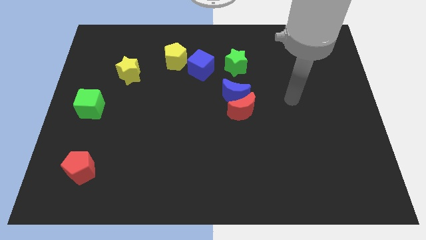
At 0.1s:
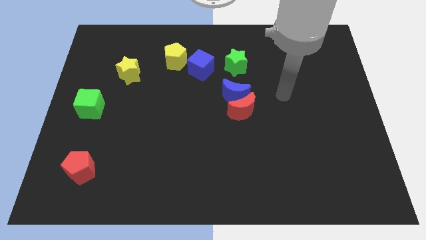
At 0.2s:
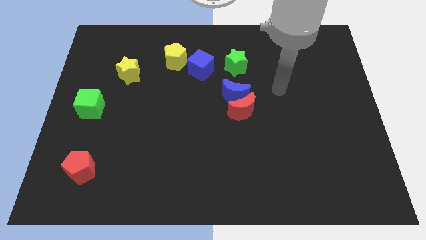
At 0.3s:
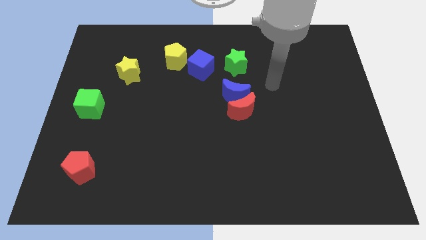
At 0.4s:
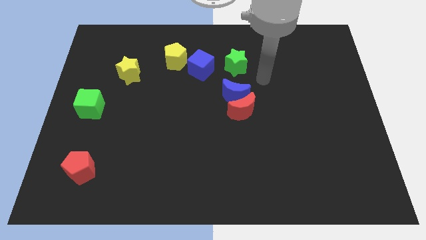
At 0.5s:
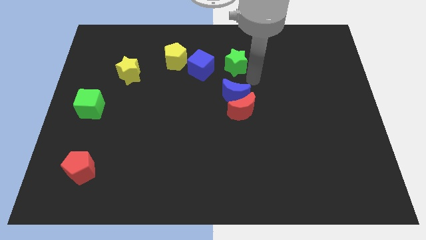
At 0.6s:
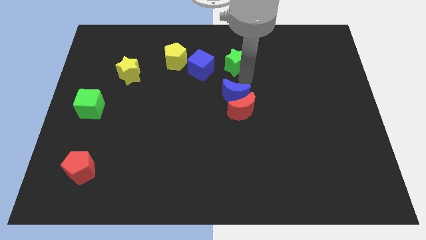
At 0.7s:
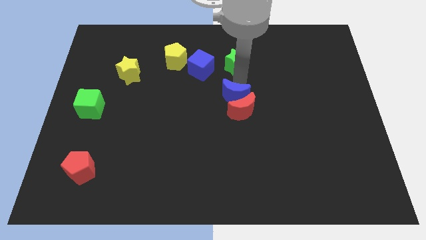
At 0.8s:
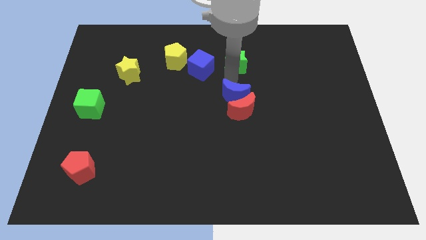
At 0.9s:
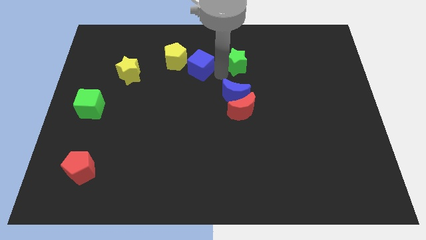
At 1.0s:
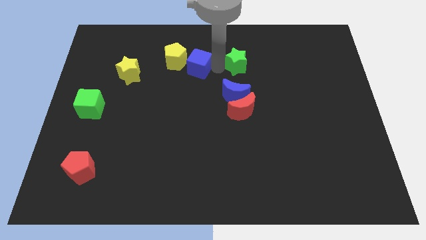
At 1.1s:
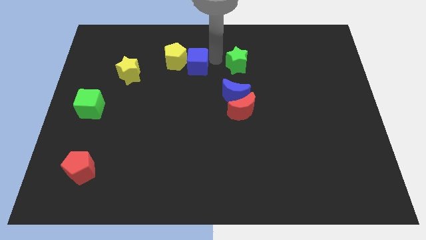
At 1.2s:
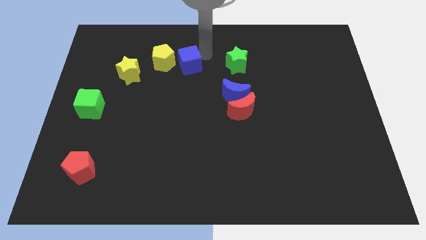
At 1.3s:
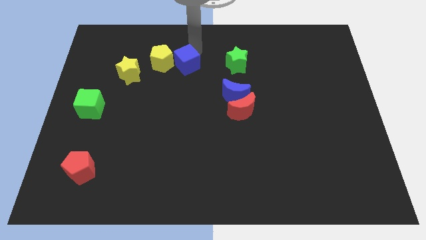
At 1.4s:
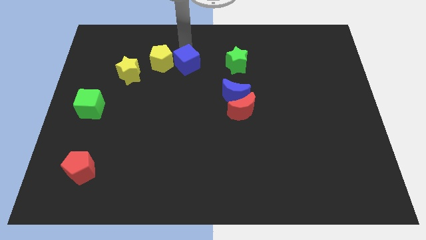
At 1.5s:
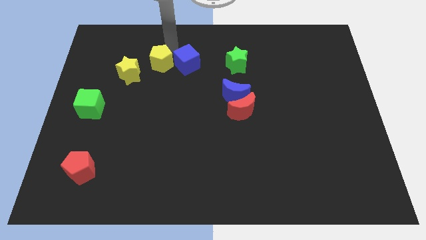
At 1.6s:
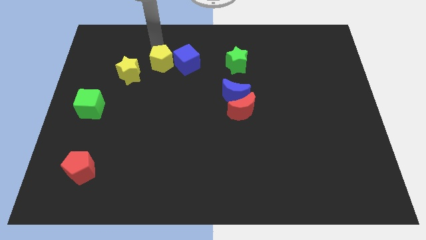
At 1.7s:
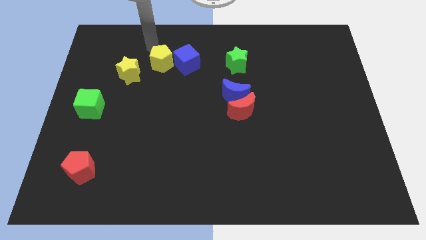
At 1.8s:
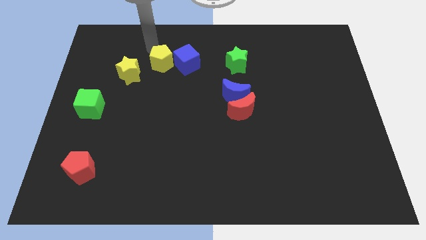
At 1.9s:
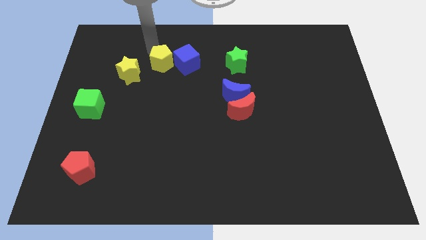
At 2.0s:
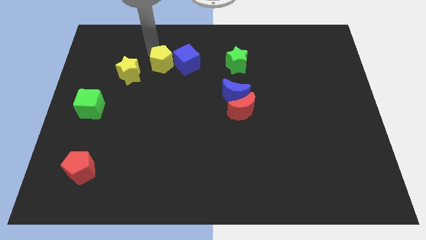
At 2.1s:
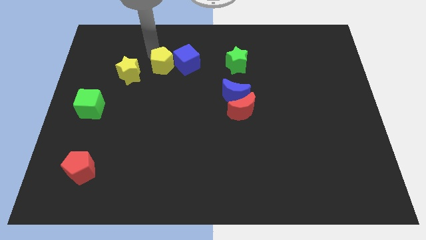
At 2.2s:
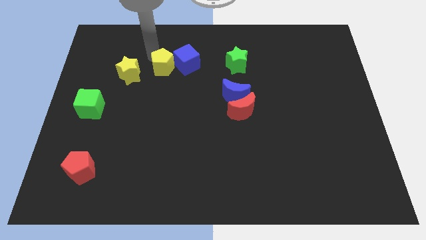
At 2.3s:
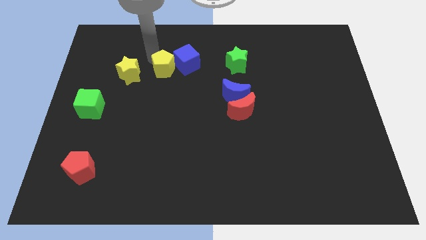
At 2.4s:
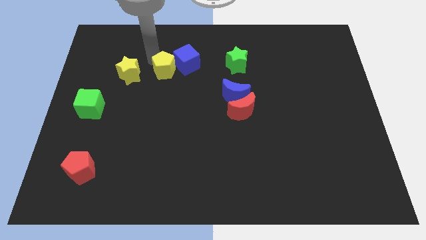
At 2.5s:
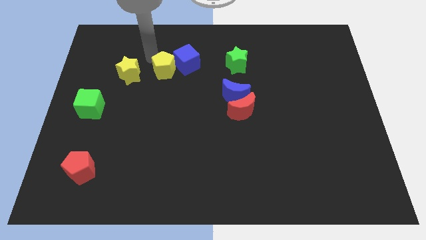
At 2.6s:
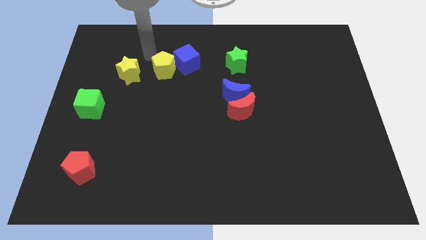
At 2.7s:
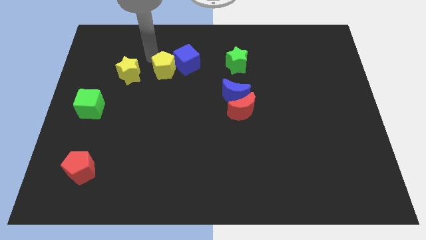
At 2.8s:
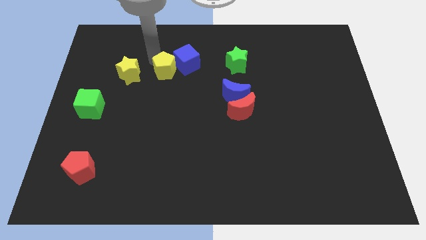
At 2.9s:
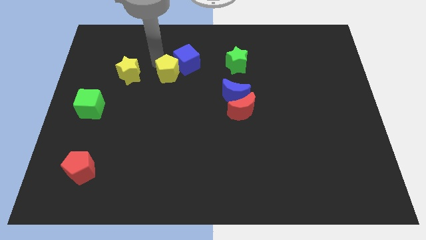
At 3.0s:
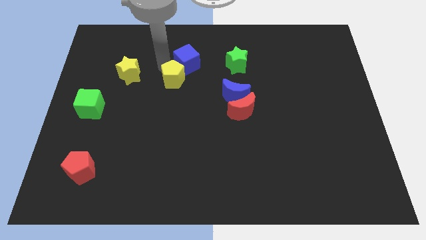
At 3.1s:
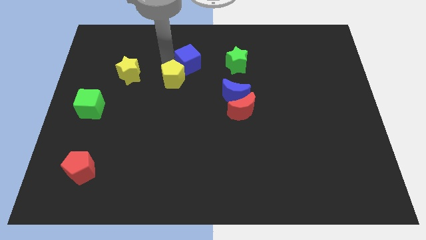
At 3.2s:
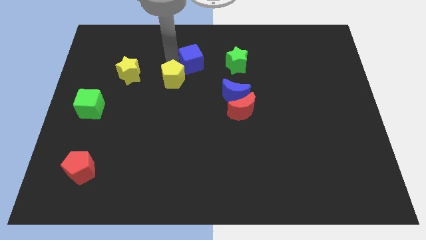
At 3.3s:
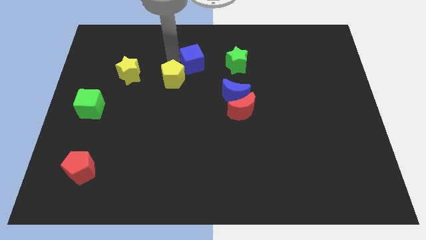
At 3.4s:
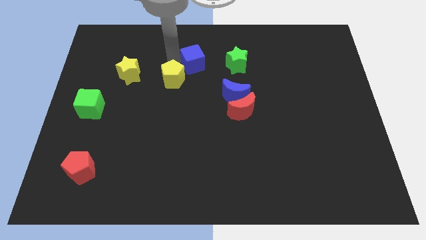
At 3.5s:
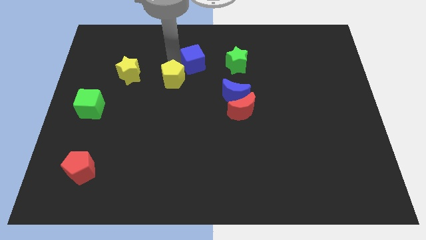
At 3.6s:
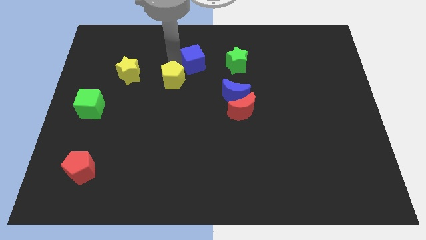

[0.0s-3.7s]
slide the yellow pentagon a bit down

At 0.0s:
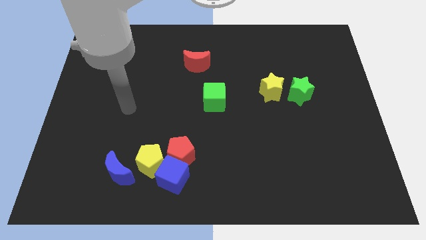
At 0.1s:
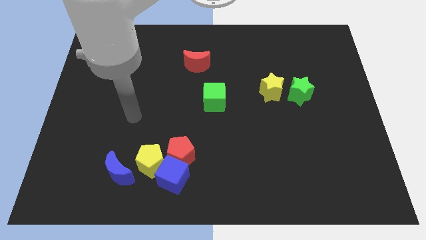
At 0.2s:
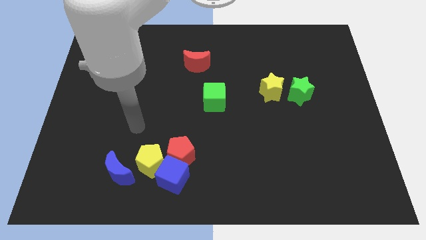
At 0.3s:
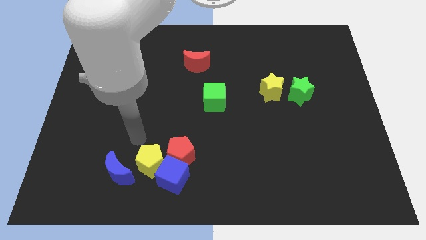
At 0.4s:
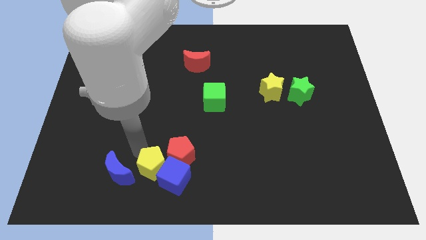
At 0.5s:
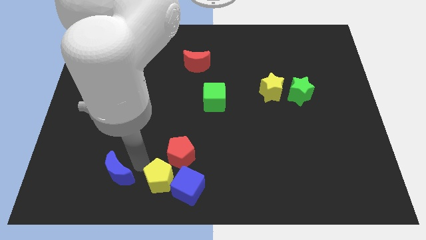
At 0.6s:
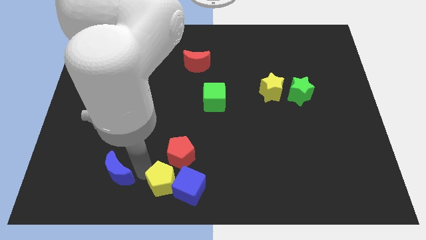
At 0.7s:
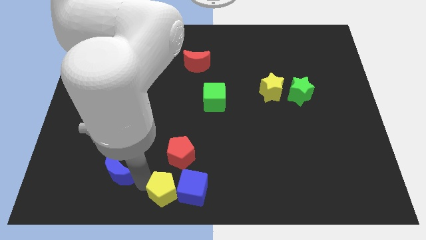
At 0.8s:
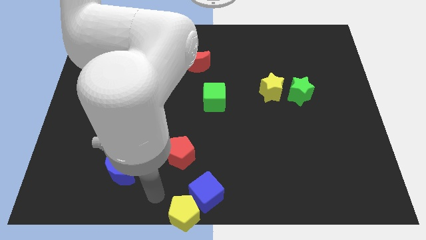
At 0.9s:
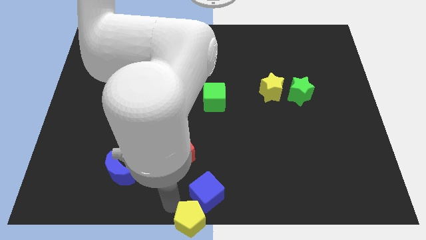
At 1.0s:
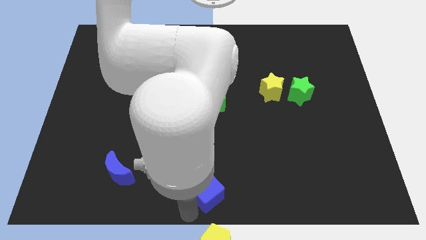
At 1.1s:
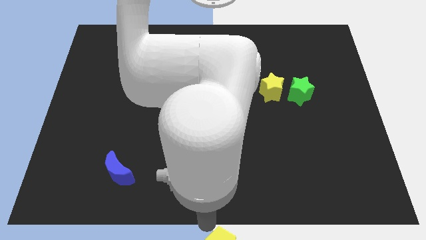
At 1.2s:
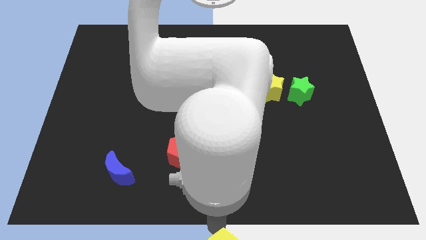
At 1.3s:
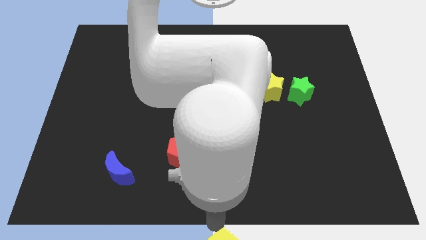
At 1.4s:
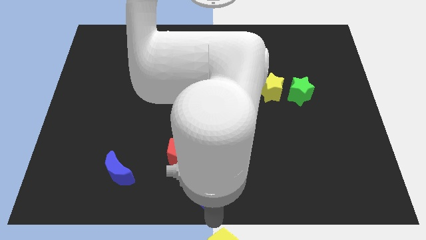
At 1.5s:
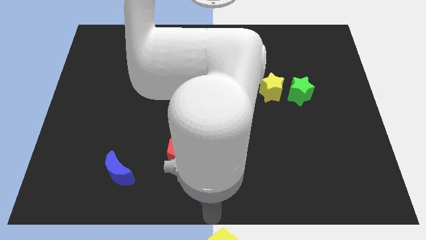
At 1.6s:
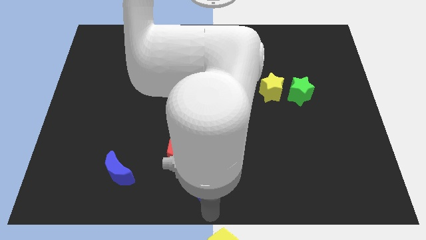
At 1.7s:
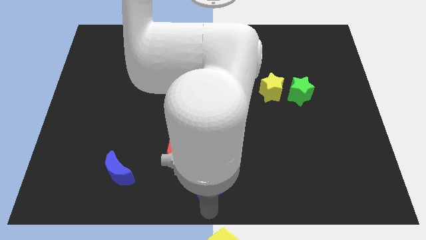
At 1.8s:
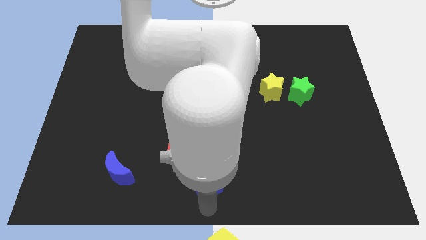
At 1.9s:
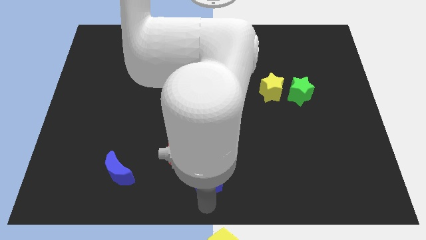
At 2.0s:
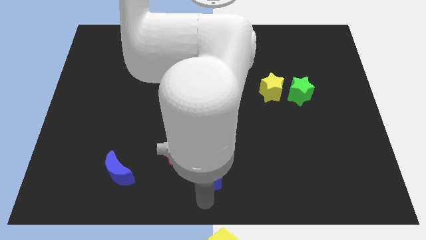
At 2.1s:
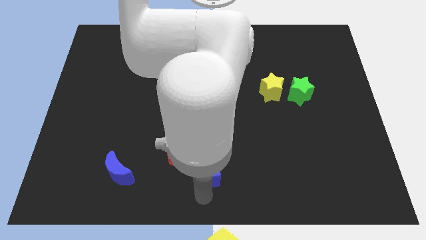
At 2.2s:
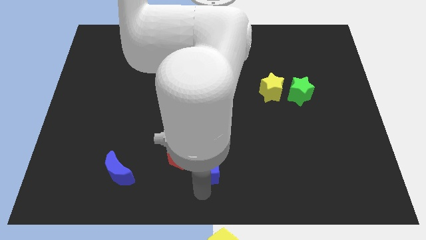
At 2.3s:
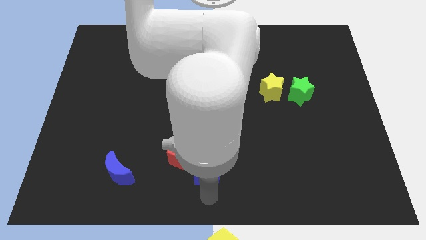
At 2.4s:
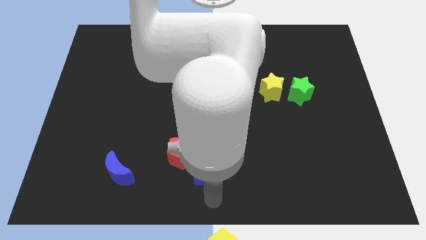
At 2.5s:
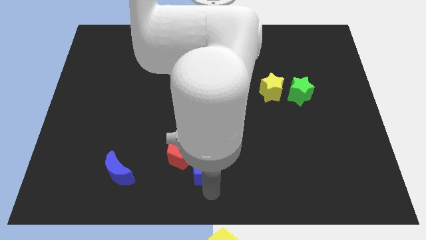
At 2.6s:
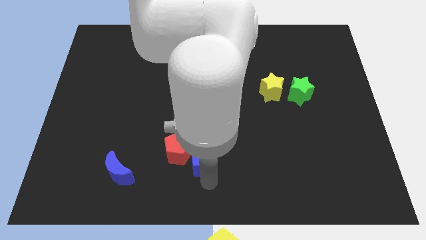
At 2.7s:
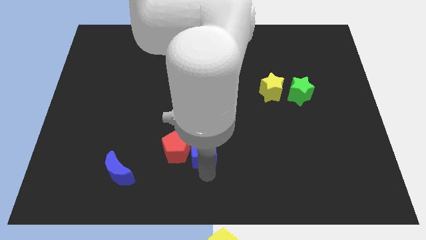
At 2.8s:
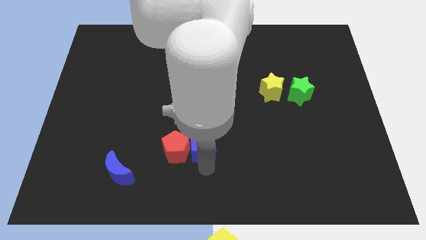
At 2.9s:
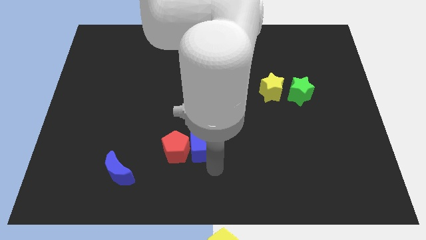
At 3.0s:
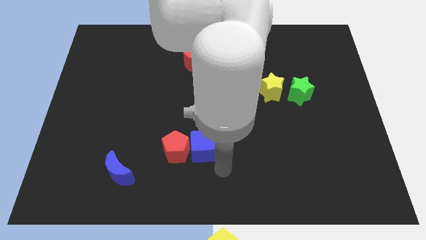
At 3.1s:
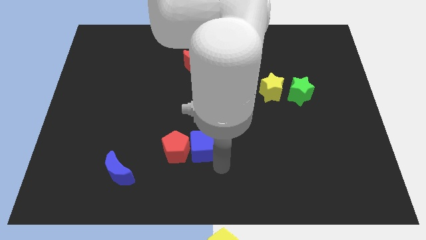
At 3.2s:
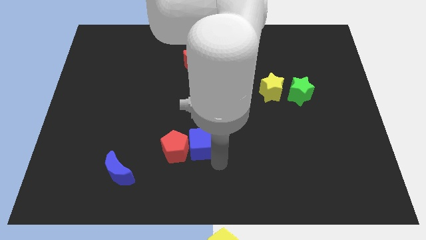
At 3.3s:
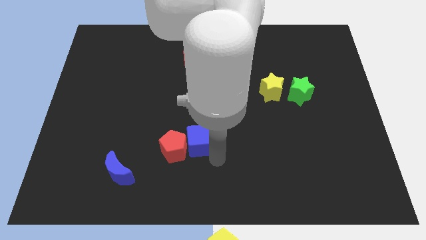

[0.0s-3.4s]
slightly move the blue cube upwards

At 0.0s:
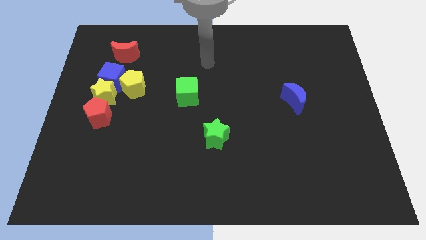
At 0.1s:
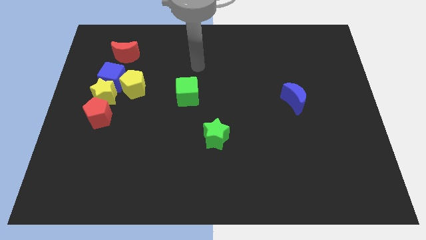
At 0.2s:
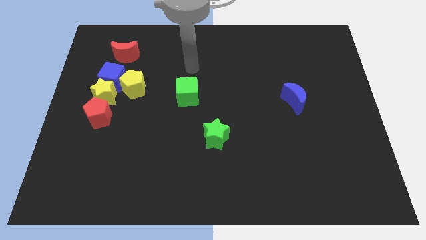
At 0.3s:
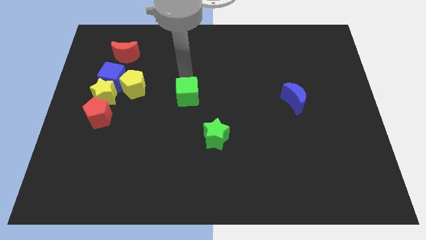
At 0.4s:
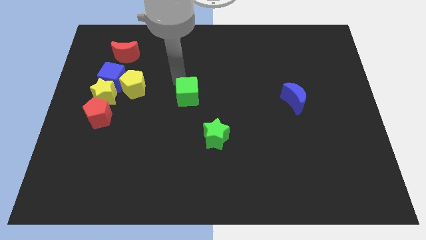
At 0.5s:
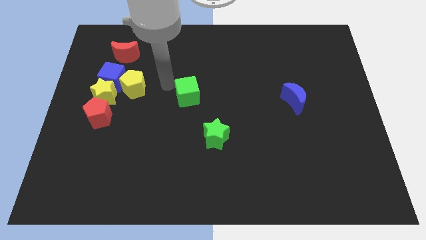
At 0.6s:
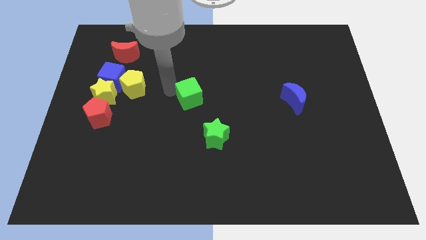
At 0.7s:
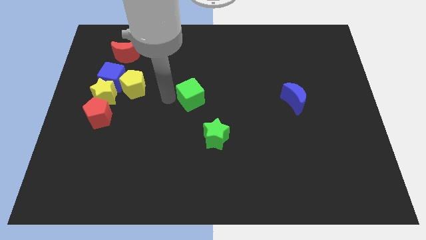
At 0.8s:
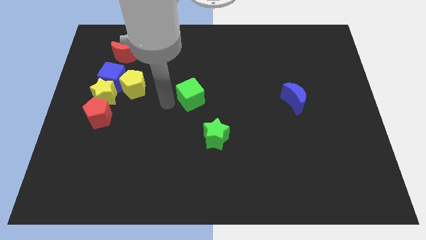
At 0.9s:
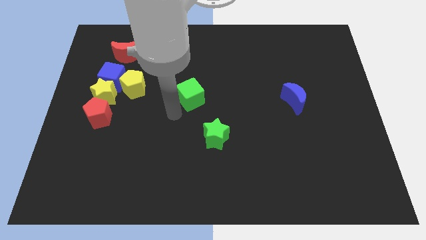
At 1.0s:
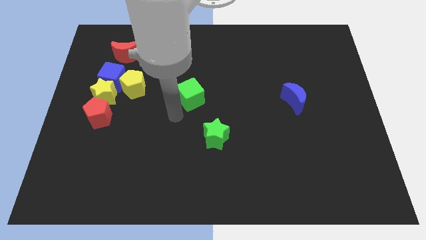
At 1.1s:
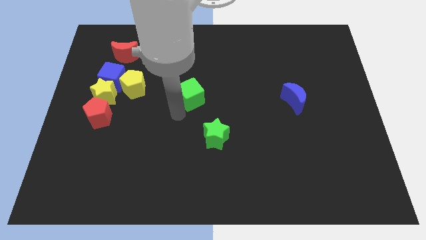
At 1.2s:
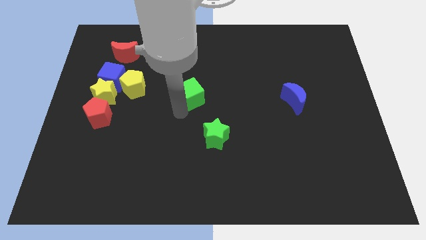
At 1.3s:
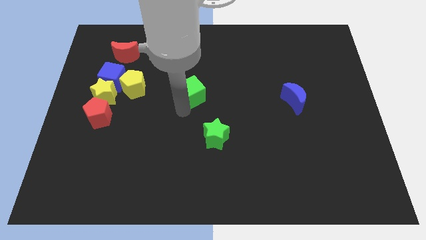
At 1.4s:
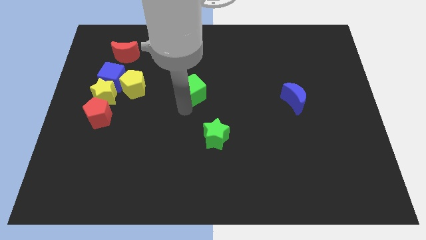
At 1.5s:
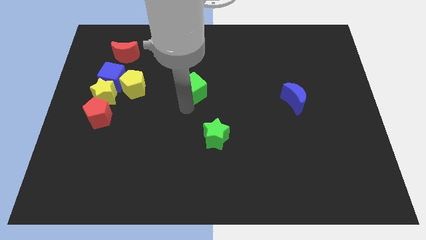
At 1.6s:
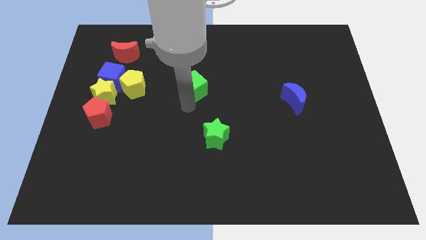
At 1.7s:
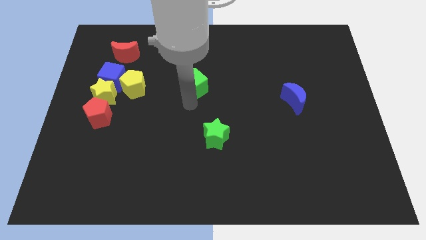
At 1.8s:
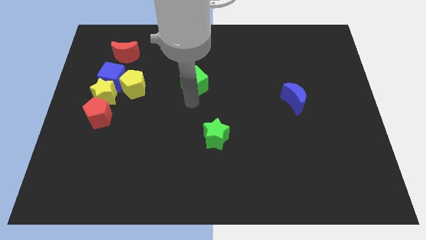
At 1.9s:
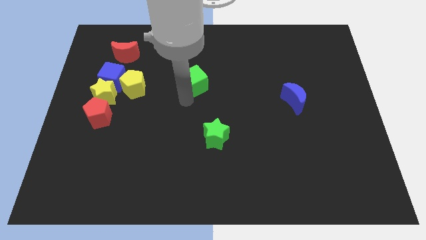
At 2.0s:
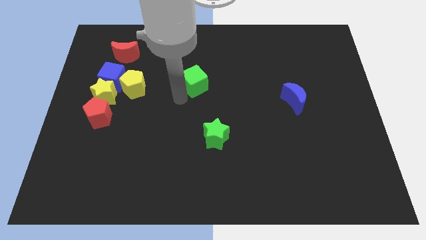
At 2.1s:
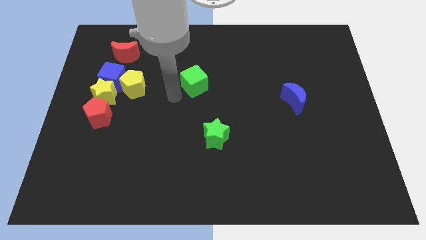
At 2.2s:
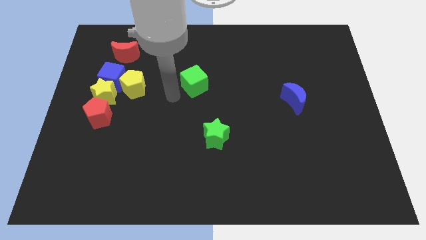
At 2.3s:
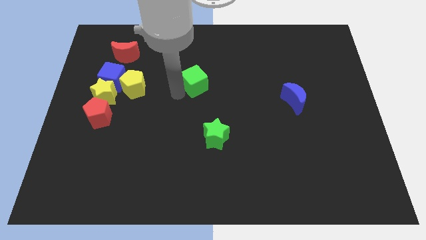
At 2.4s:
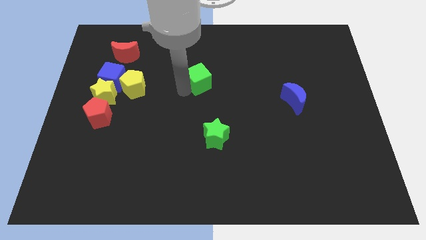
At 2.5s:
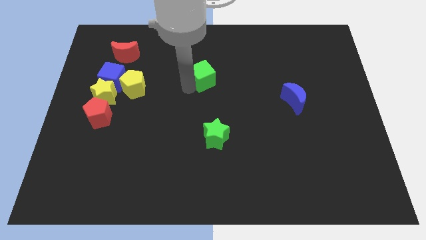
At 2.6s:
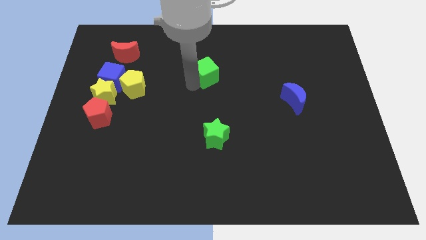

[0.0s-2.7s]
slightly move the green cube upwards and then right
